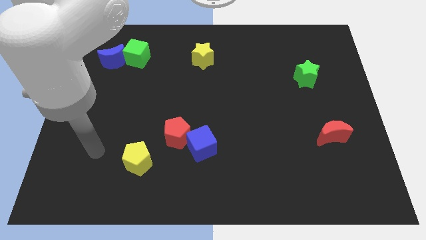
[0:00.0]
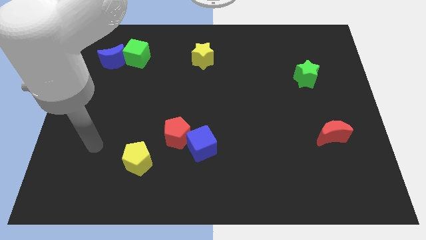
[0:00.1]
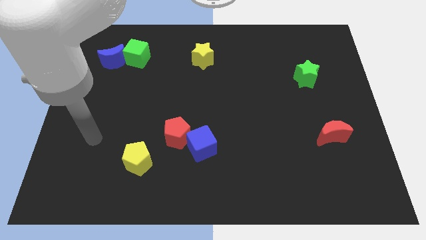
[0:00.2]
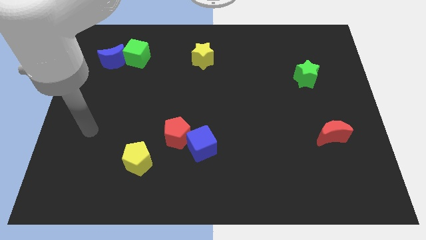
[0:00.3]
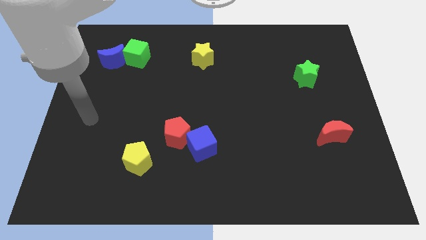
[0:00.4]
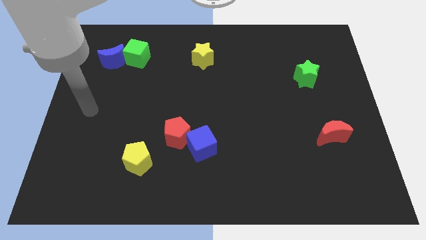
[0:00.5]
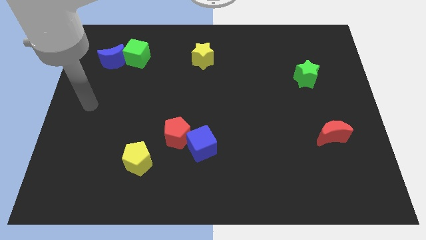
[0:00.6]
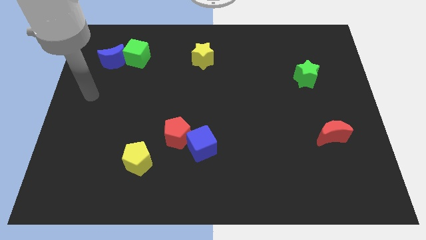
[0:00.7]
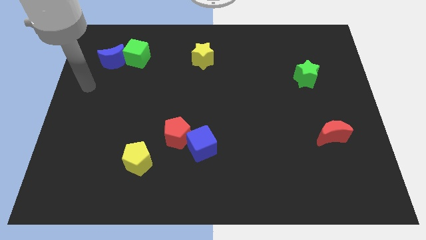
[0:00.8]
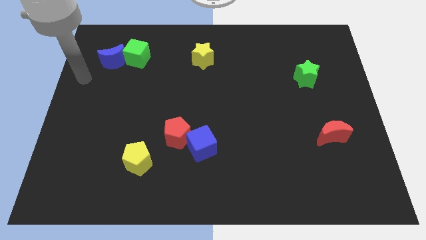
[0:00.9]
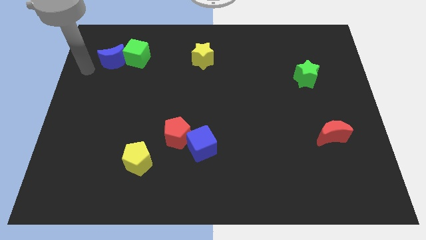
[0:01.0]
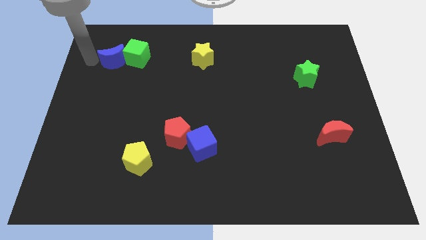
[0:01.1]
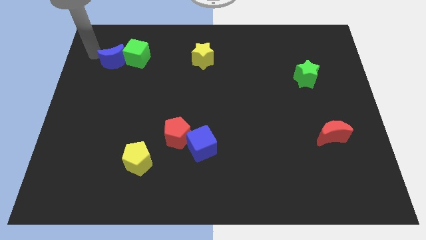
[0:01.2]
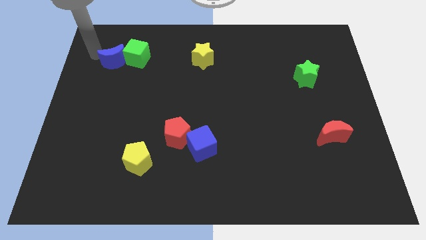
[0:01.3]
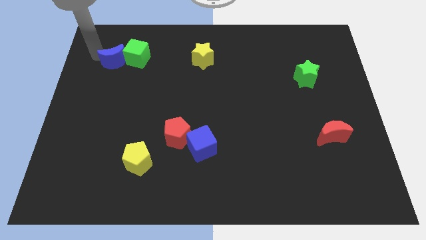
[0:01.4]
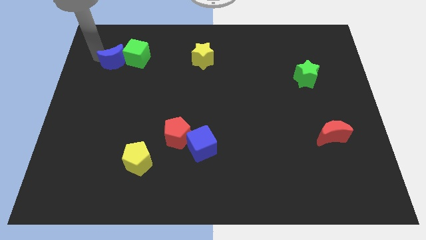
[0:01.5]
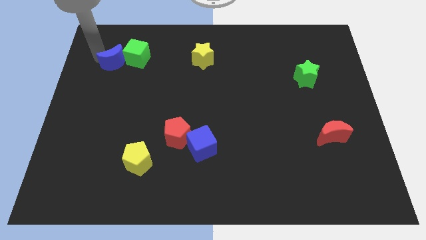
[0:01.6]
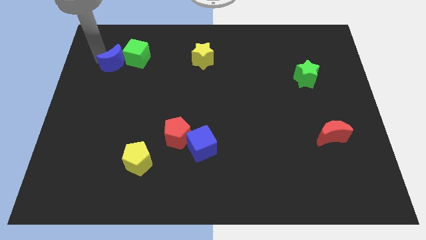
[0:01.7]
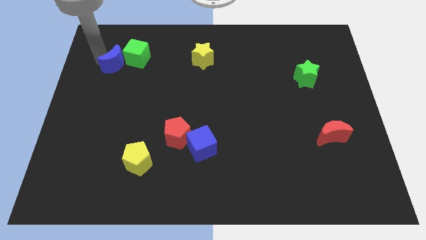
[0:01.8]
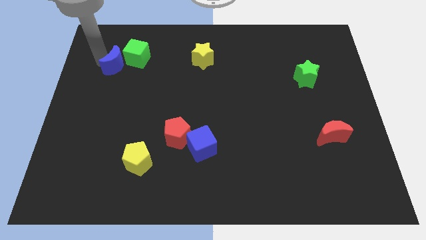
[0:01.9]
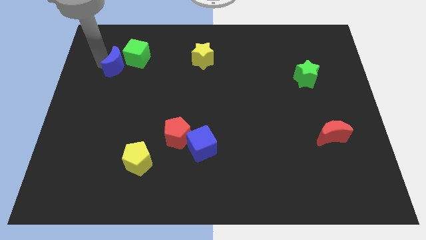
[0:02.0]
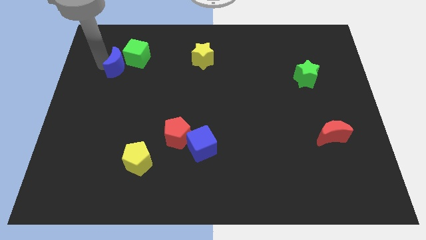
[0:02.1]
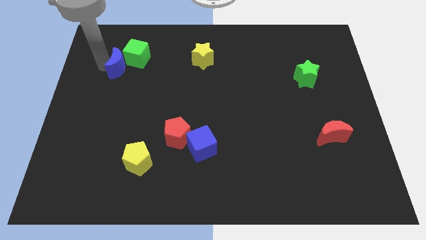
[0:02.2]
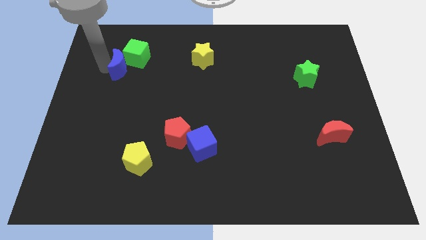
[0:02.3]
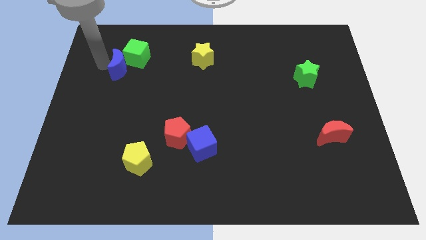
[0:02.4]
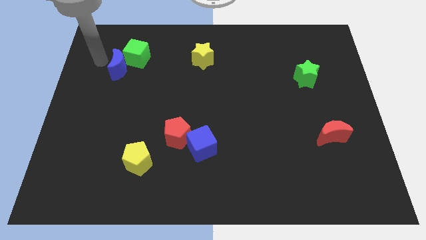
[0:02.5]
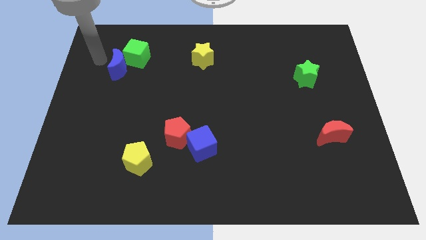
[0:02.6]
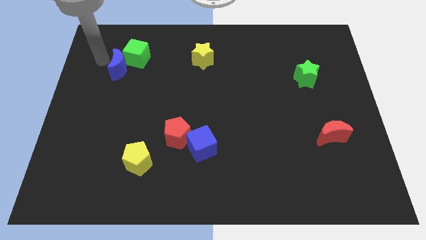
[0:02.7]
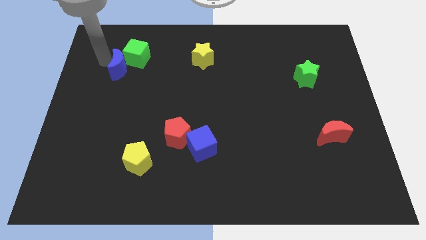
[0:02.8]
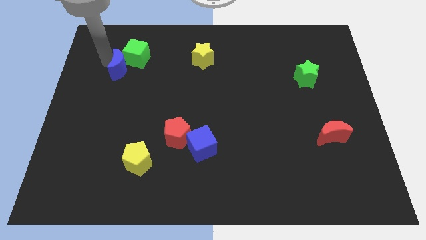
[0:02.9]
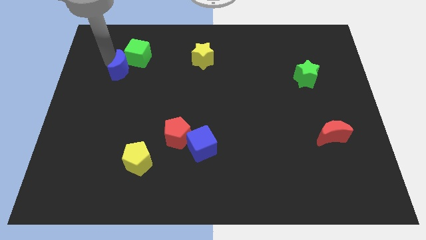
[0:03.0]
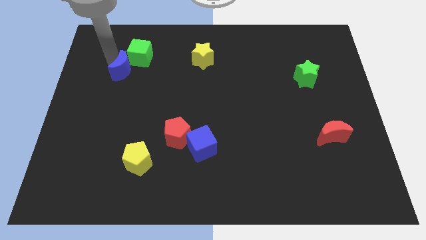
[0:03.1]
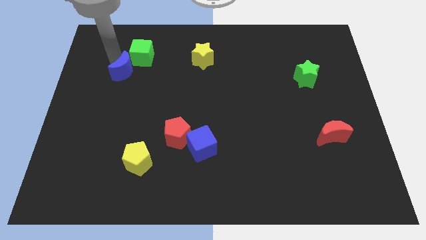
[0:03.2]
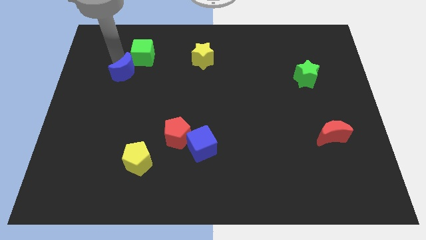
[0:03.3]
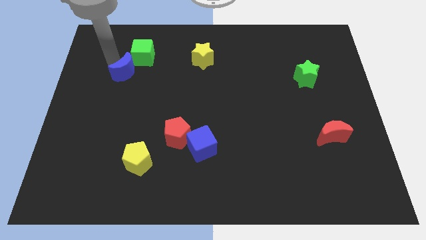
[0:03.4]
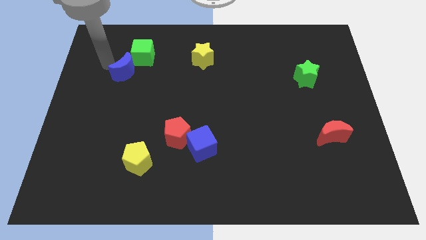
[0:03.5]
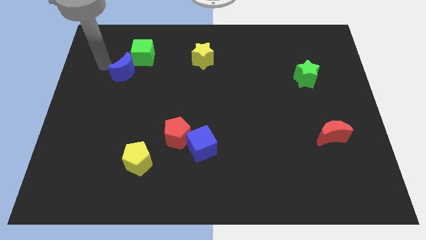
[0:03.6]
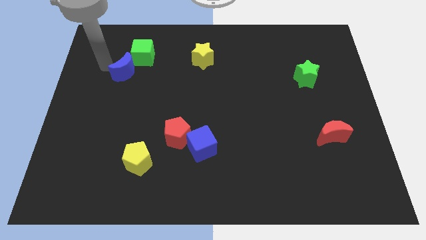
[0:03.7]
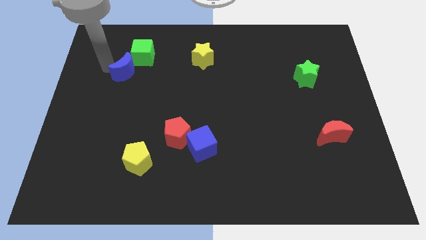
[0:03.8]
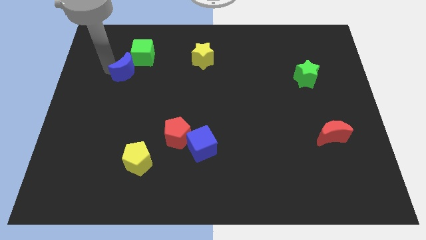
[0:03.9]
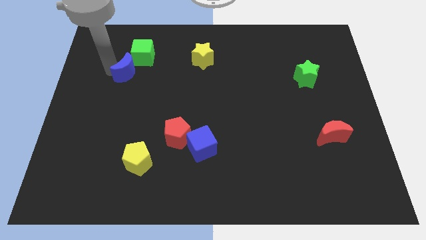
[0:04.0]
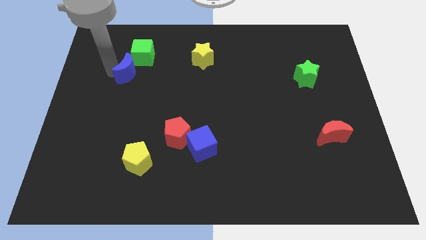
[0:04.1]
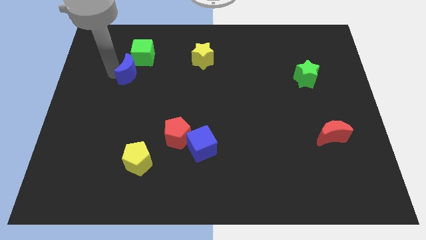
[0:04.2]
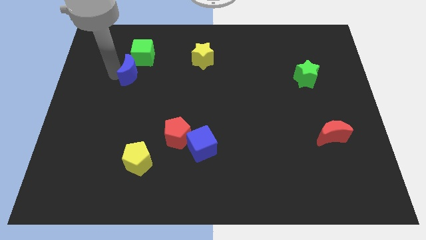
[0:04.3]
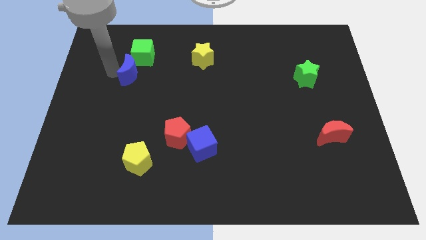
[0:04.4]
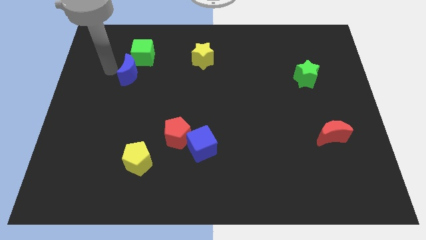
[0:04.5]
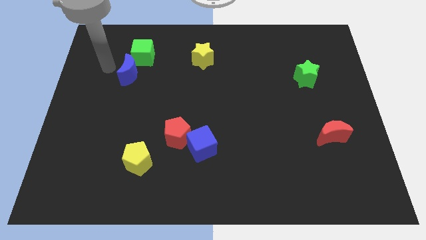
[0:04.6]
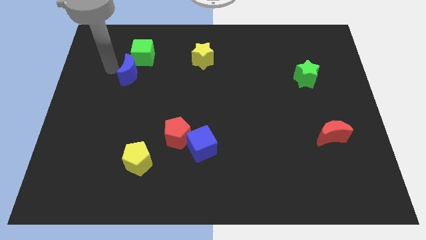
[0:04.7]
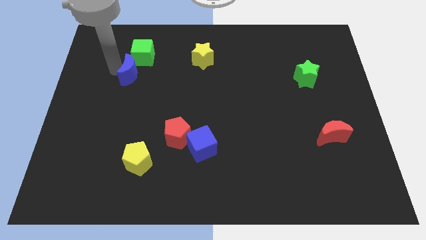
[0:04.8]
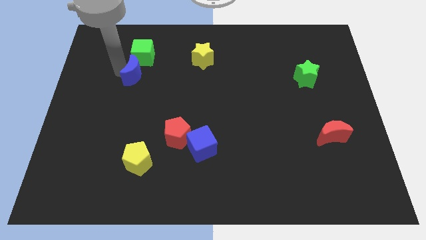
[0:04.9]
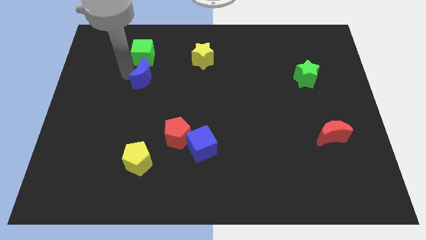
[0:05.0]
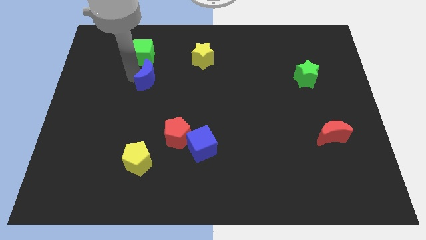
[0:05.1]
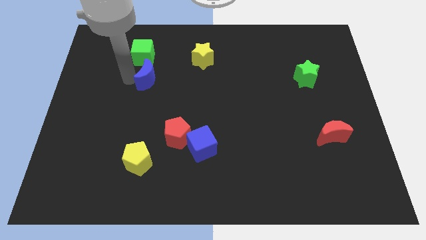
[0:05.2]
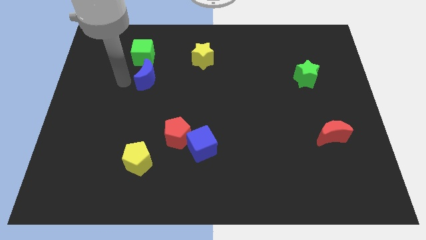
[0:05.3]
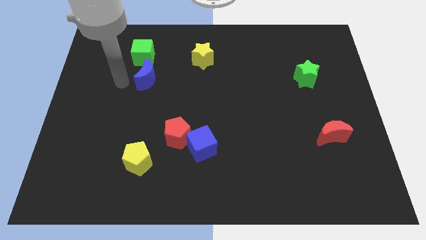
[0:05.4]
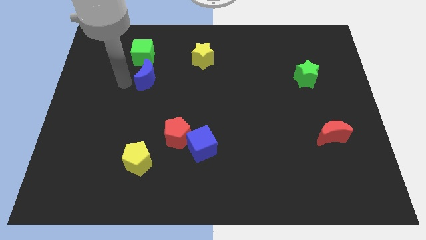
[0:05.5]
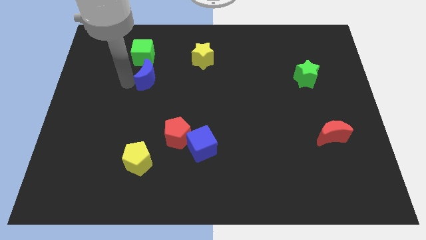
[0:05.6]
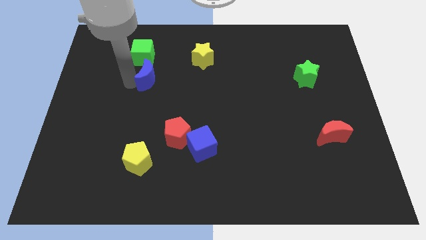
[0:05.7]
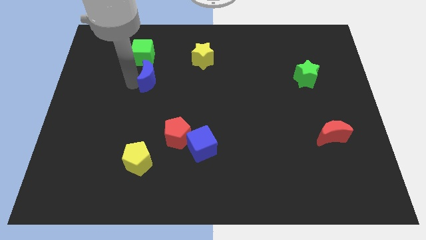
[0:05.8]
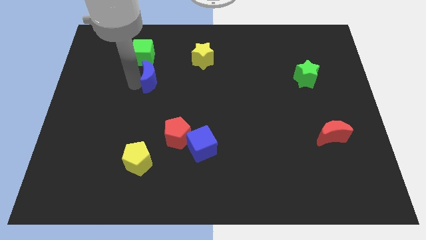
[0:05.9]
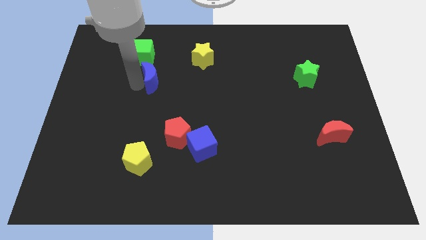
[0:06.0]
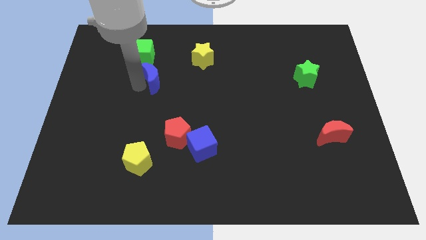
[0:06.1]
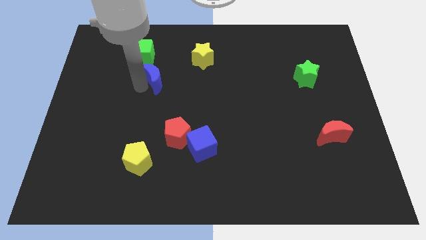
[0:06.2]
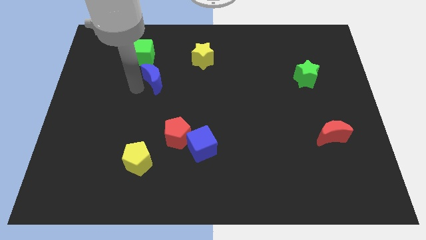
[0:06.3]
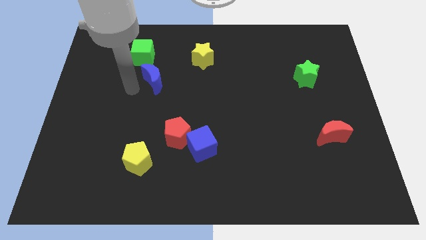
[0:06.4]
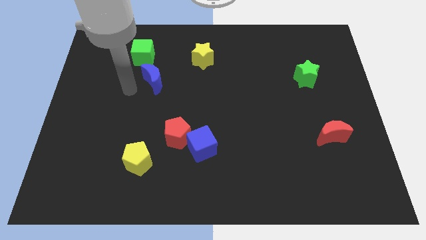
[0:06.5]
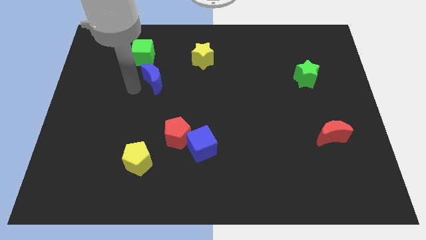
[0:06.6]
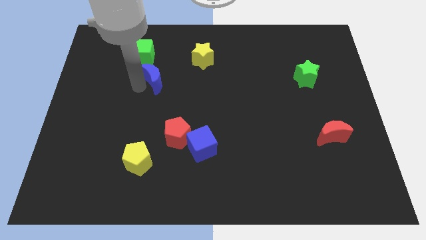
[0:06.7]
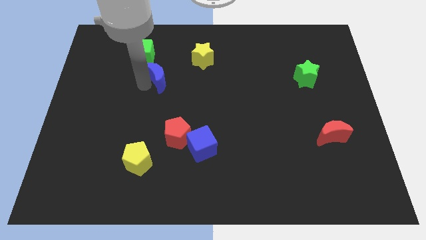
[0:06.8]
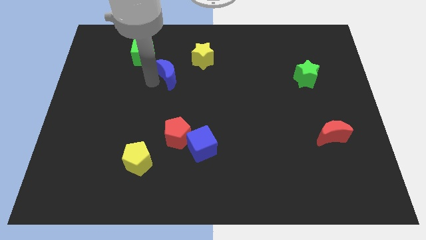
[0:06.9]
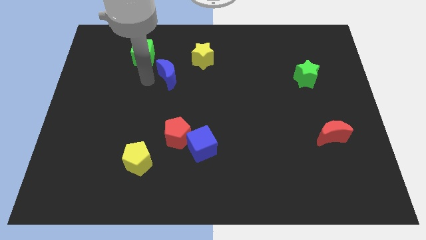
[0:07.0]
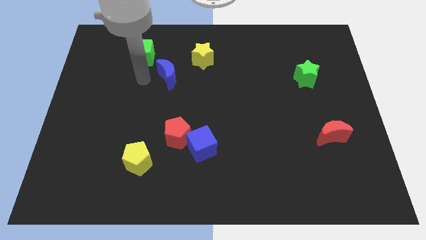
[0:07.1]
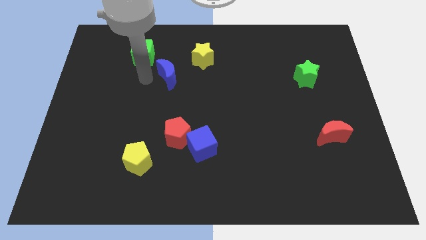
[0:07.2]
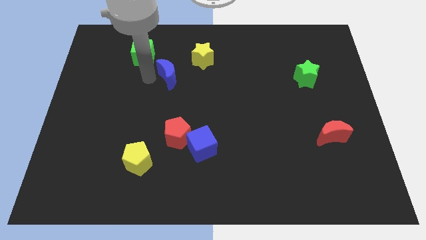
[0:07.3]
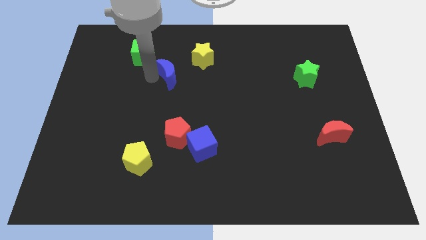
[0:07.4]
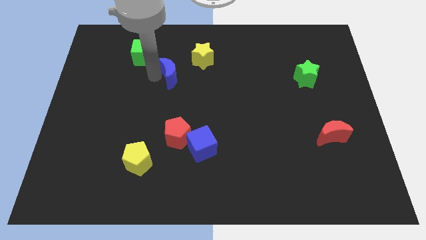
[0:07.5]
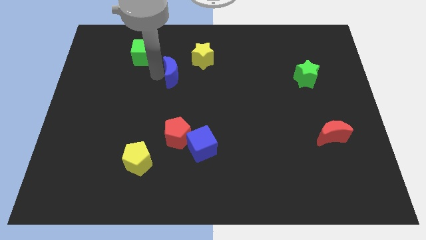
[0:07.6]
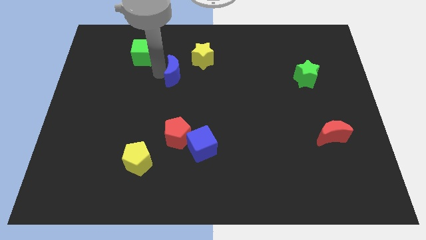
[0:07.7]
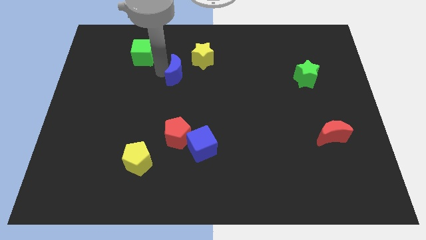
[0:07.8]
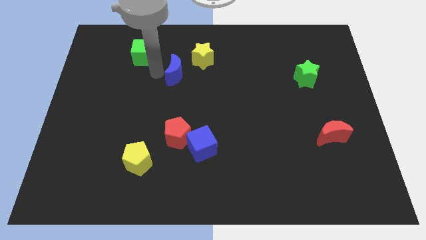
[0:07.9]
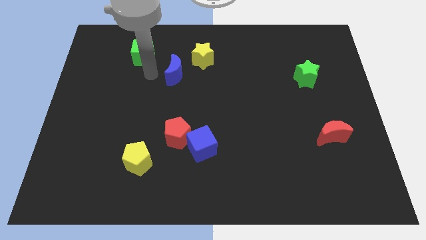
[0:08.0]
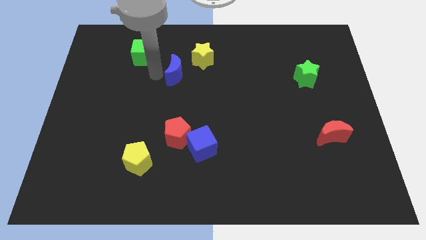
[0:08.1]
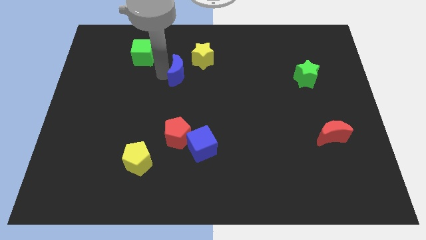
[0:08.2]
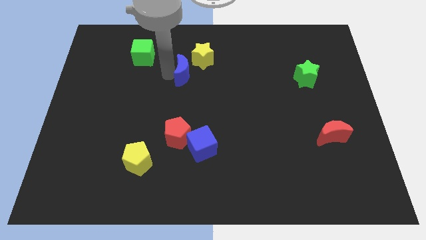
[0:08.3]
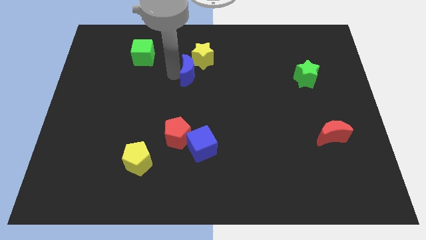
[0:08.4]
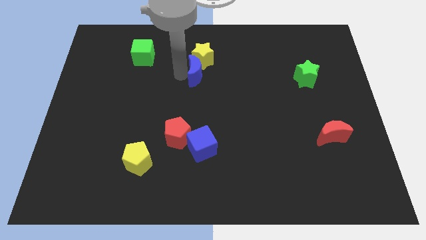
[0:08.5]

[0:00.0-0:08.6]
move the blue moon right
